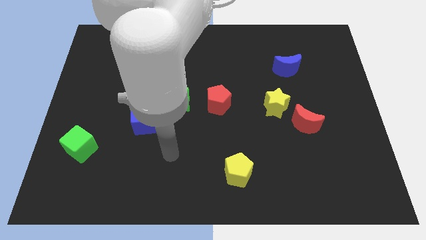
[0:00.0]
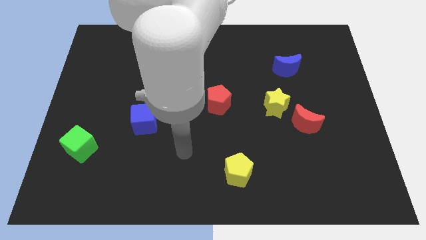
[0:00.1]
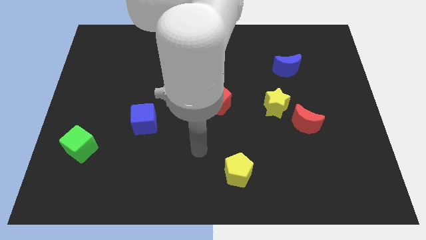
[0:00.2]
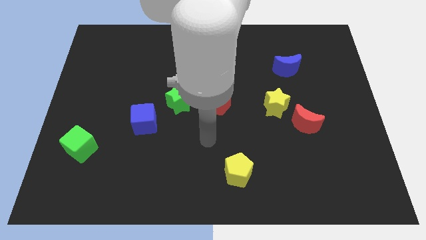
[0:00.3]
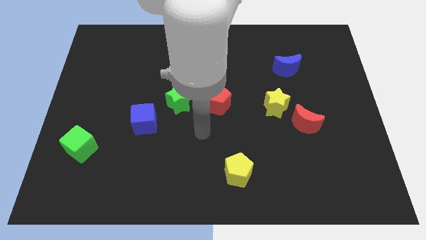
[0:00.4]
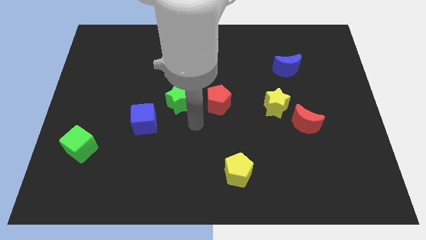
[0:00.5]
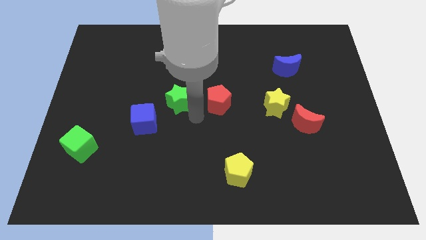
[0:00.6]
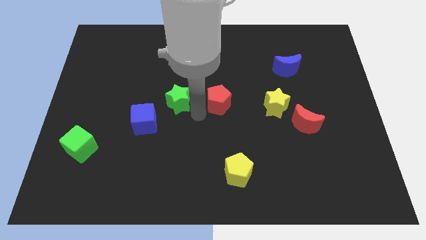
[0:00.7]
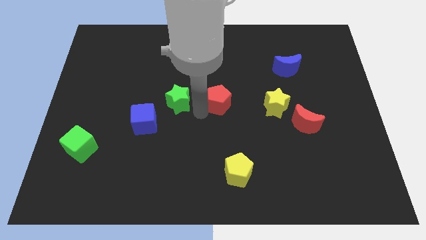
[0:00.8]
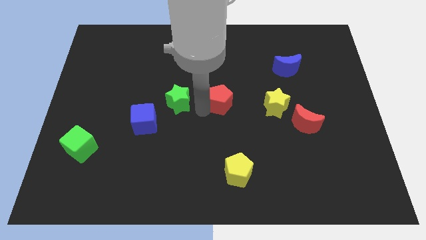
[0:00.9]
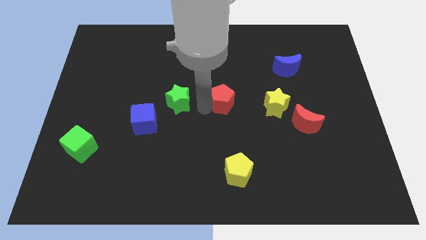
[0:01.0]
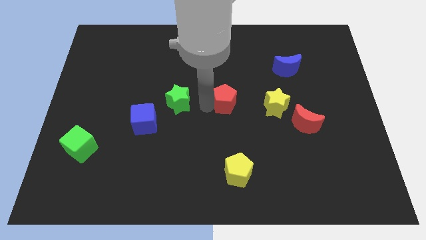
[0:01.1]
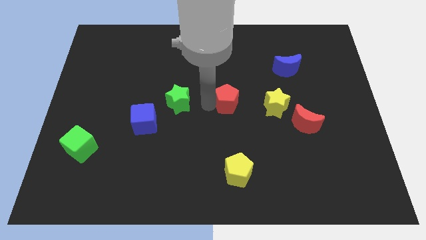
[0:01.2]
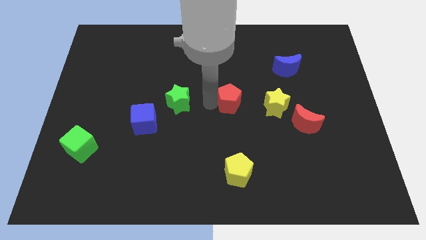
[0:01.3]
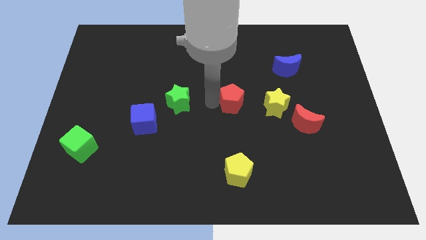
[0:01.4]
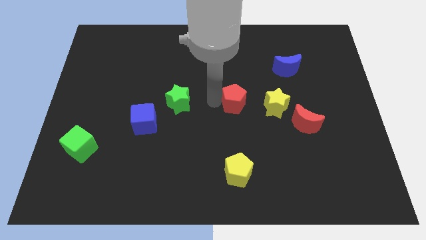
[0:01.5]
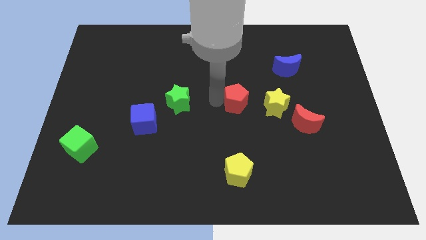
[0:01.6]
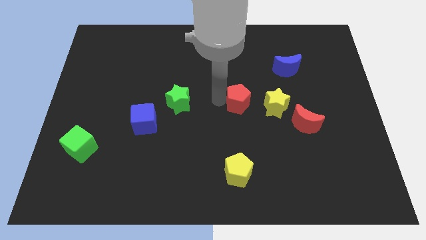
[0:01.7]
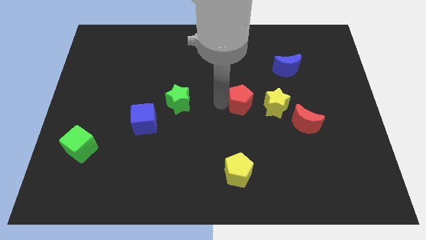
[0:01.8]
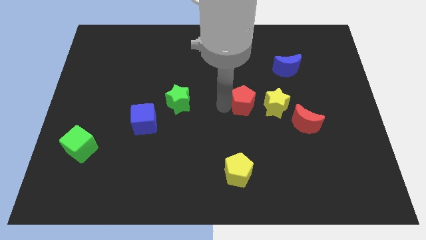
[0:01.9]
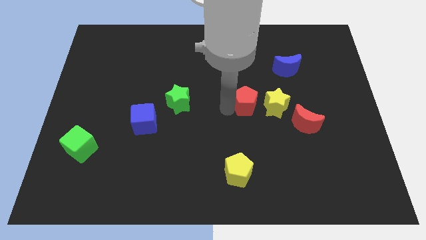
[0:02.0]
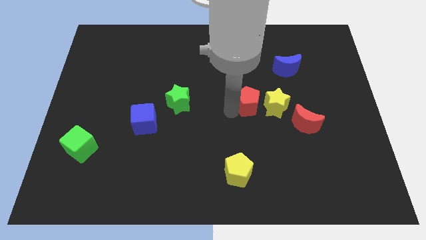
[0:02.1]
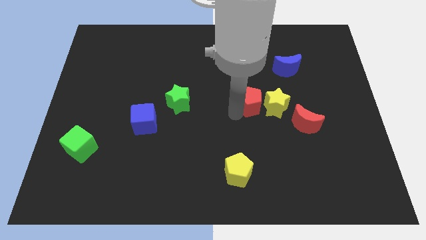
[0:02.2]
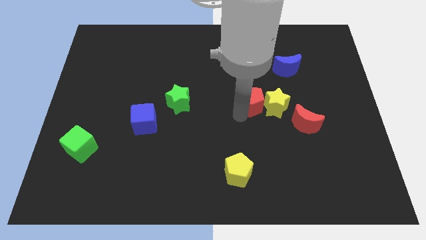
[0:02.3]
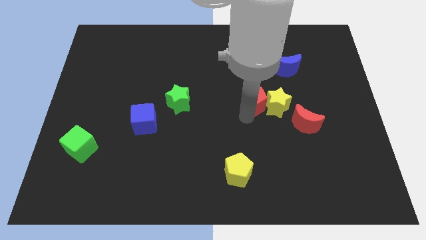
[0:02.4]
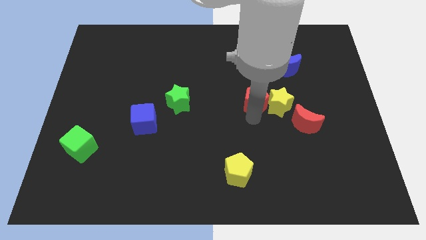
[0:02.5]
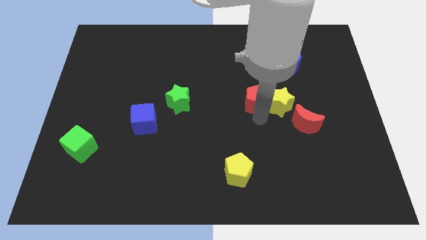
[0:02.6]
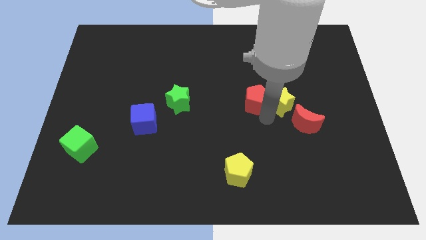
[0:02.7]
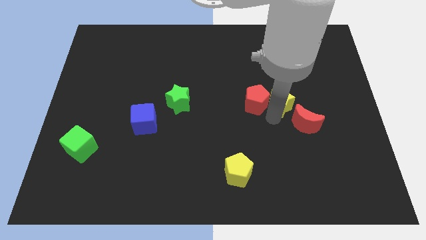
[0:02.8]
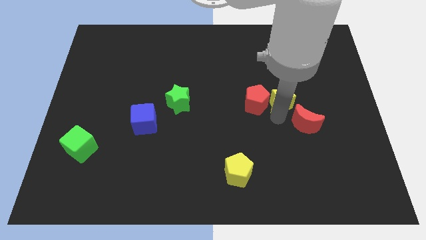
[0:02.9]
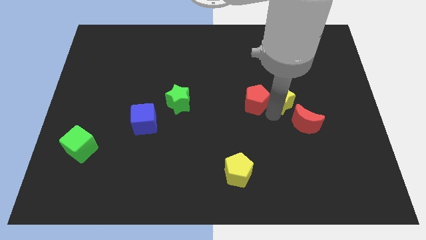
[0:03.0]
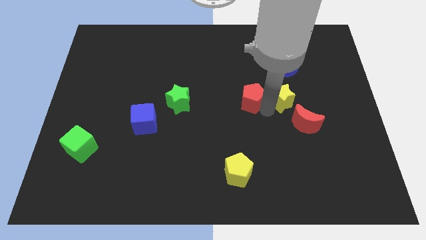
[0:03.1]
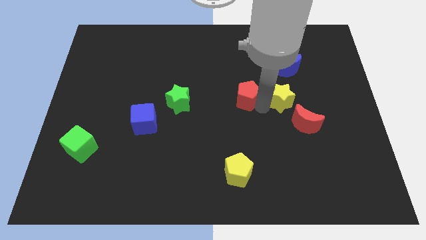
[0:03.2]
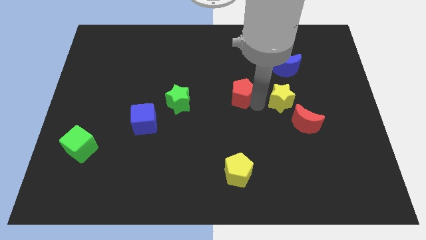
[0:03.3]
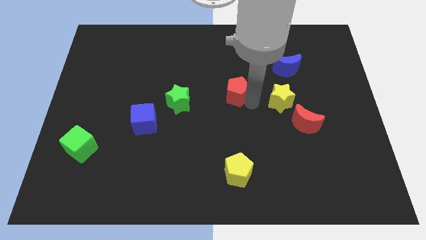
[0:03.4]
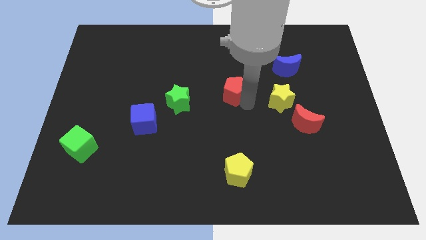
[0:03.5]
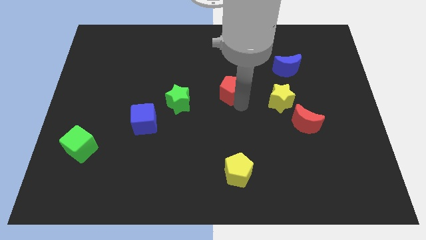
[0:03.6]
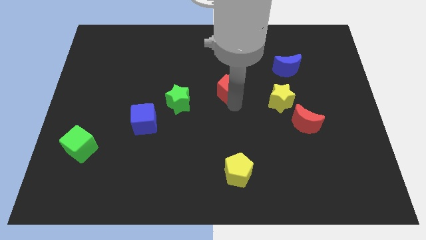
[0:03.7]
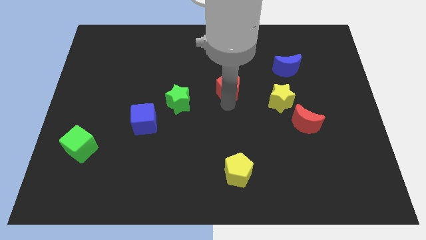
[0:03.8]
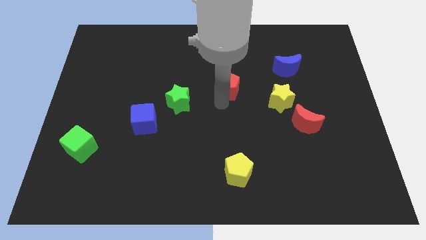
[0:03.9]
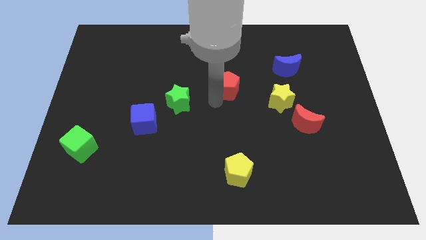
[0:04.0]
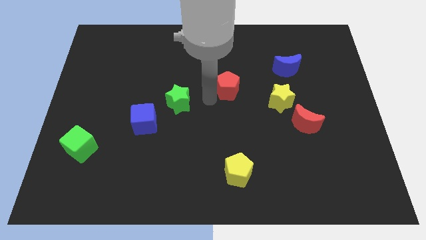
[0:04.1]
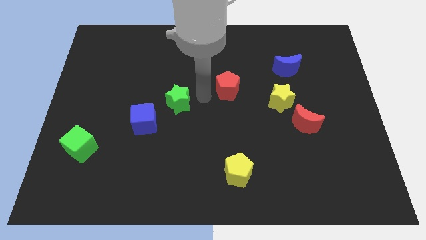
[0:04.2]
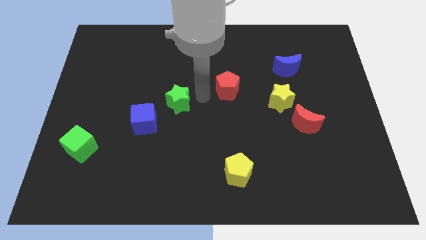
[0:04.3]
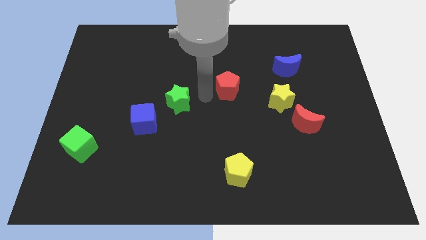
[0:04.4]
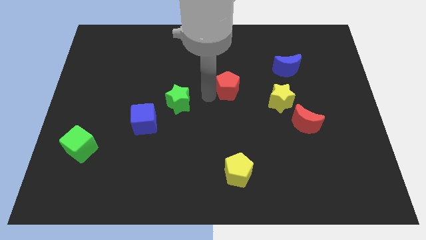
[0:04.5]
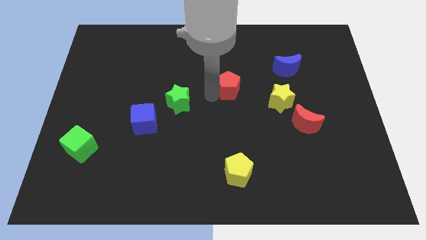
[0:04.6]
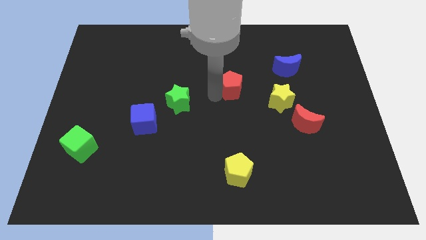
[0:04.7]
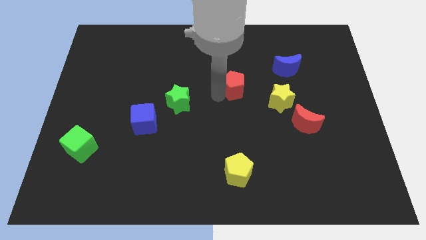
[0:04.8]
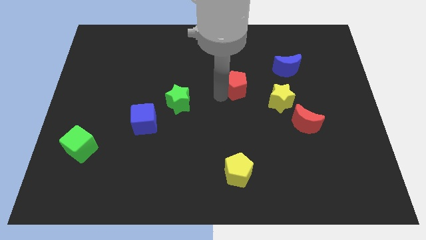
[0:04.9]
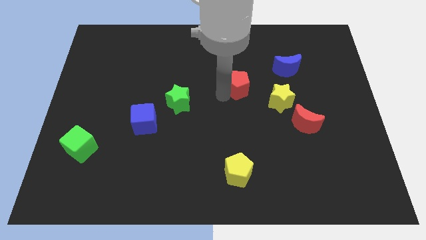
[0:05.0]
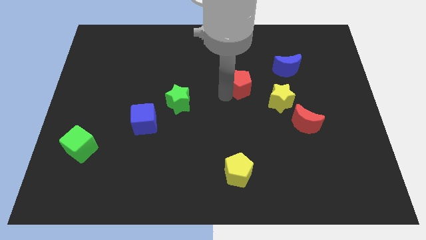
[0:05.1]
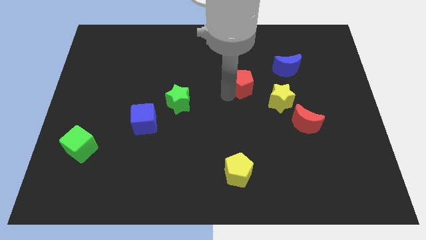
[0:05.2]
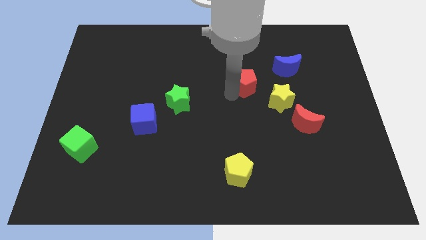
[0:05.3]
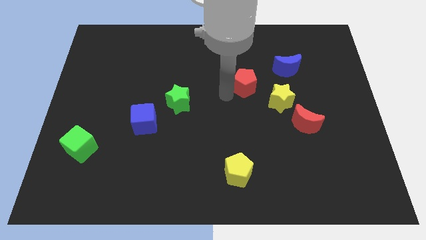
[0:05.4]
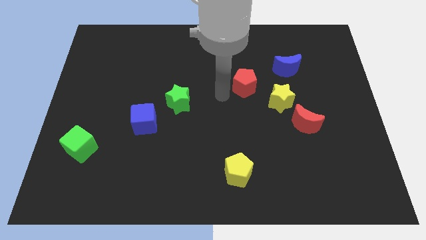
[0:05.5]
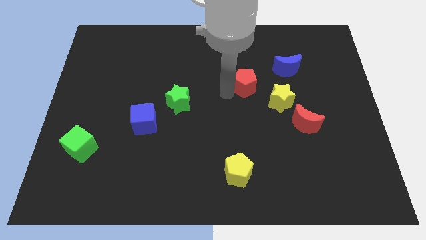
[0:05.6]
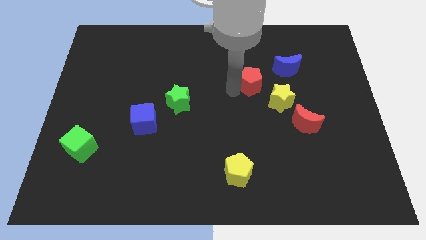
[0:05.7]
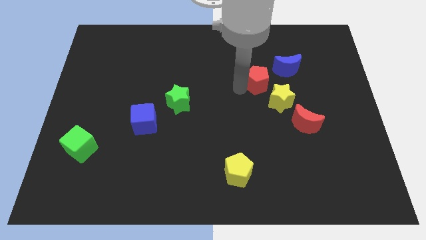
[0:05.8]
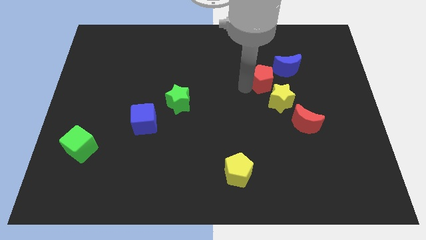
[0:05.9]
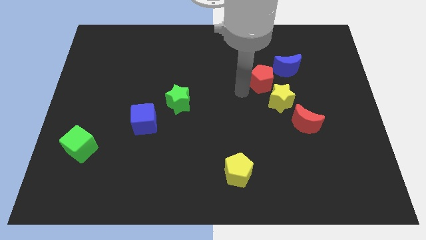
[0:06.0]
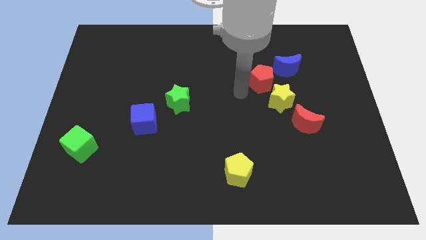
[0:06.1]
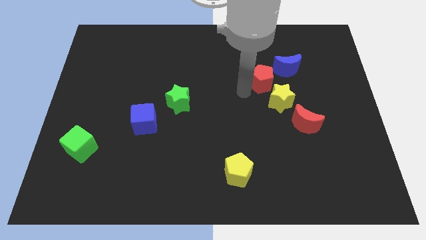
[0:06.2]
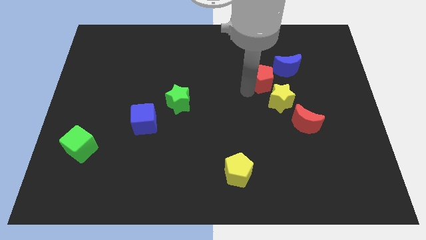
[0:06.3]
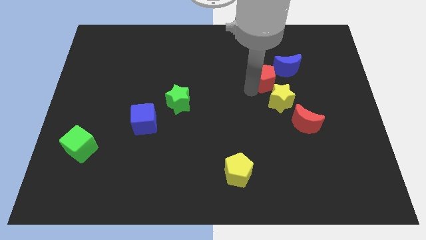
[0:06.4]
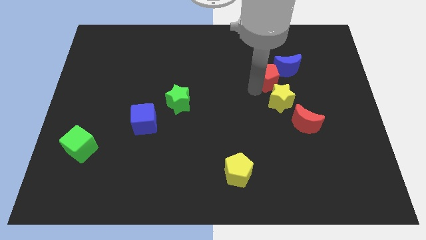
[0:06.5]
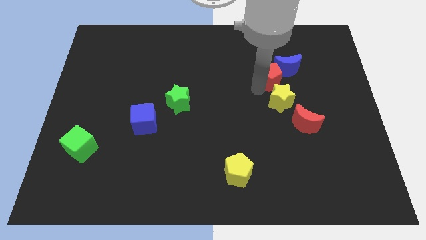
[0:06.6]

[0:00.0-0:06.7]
move the red pentagon towards the blue moon

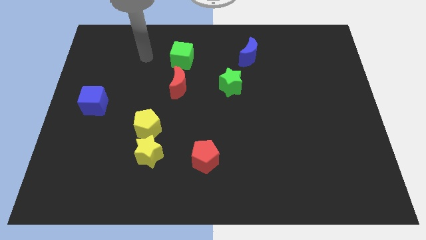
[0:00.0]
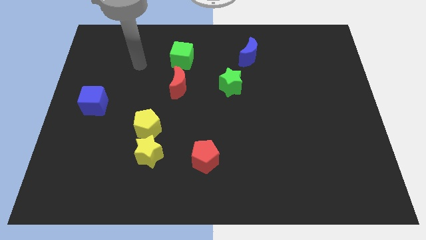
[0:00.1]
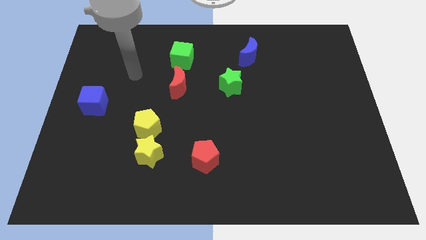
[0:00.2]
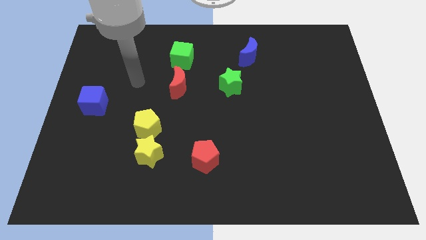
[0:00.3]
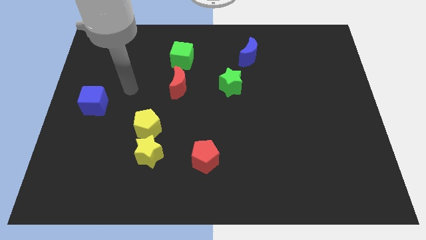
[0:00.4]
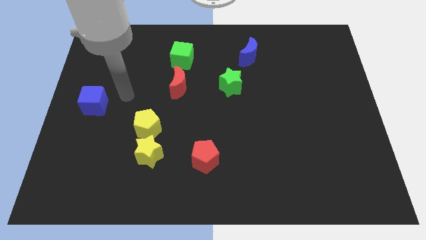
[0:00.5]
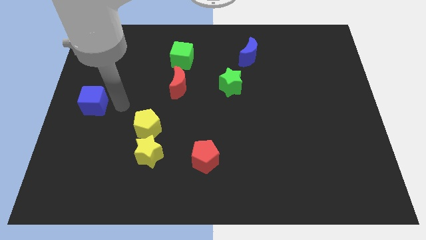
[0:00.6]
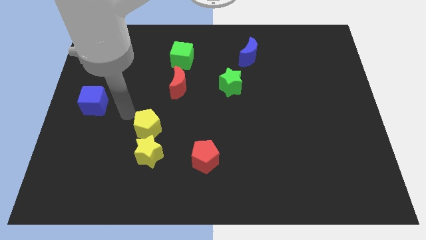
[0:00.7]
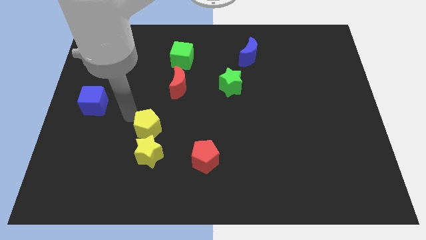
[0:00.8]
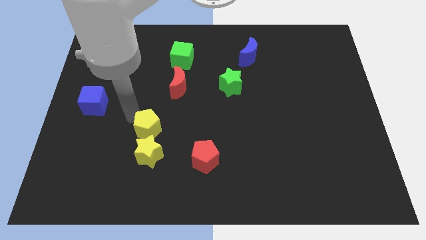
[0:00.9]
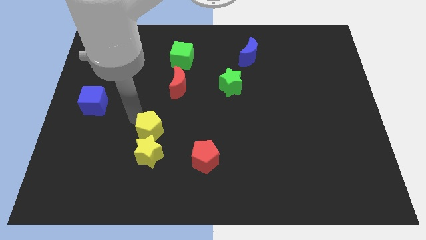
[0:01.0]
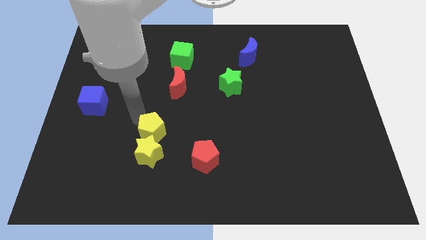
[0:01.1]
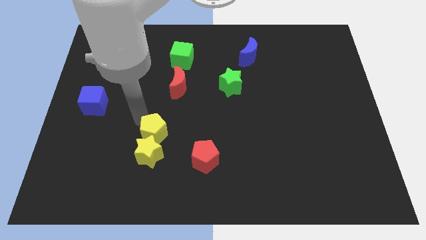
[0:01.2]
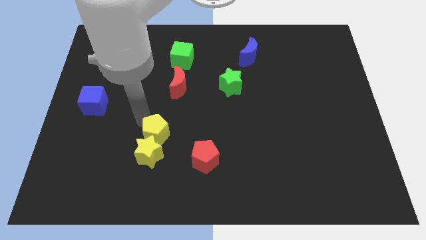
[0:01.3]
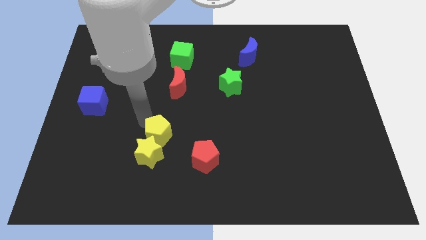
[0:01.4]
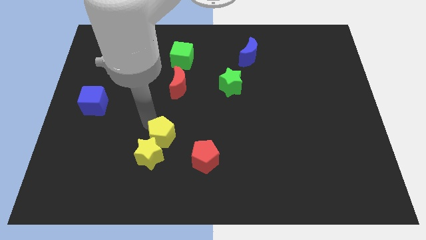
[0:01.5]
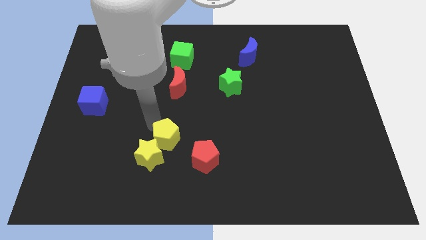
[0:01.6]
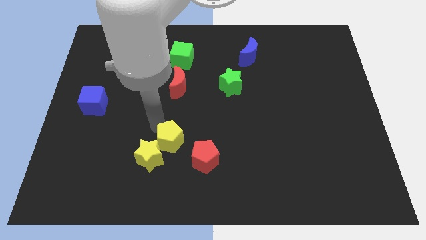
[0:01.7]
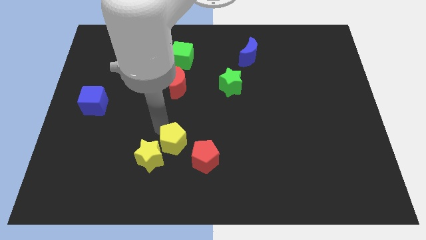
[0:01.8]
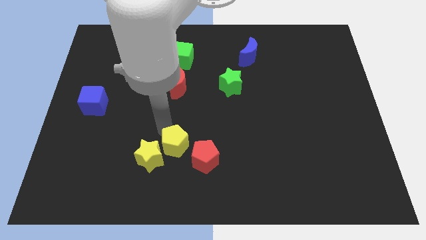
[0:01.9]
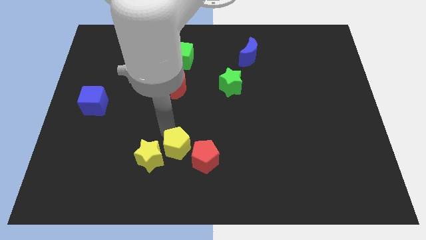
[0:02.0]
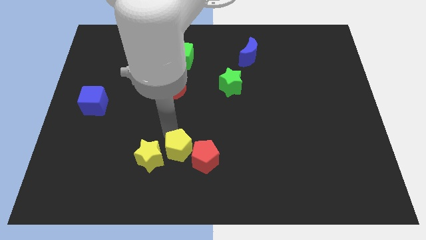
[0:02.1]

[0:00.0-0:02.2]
put the yellow pentagon to the red pentagon
